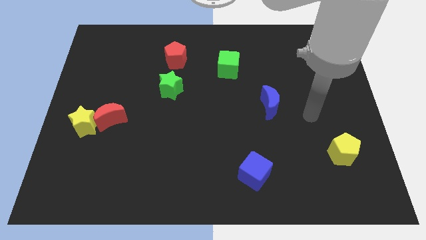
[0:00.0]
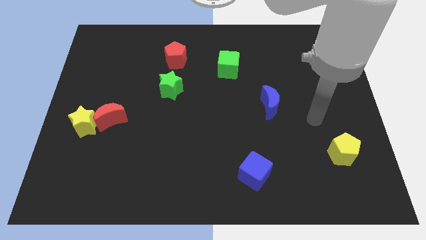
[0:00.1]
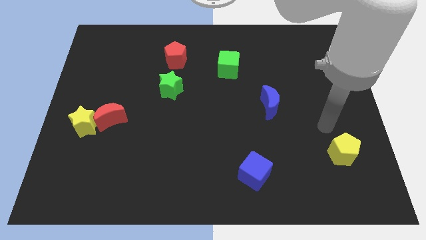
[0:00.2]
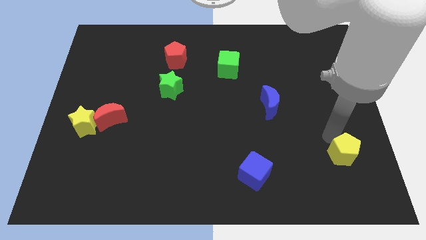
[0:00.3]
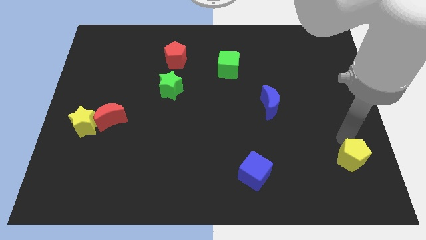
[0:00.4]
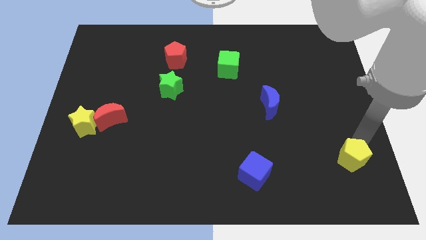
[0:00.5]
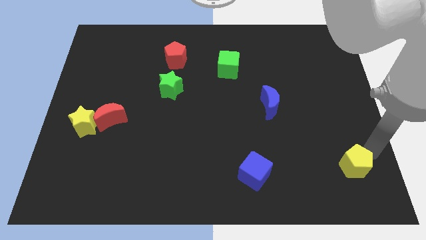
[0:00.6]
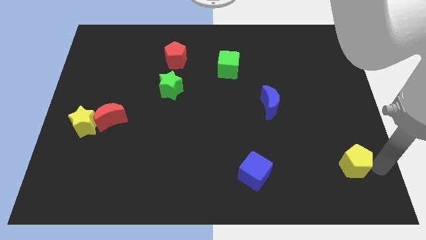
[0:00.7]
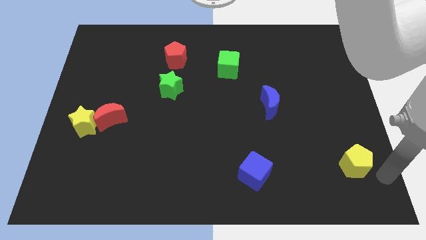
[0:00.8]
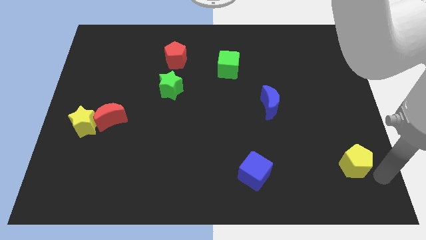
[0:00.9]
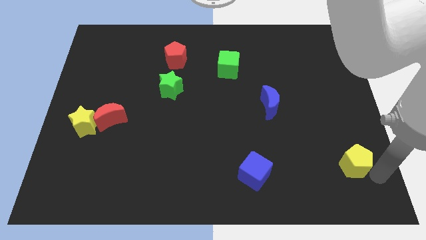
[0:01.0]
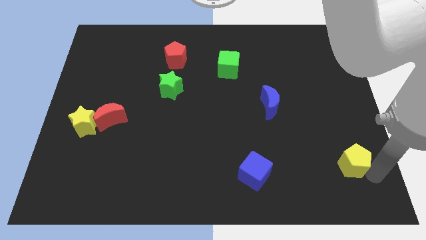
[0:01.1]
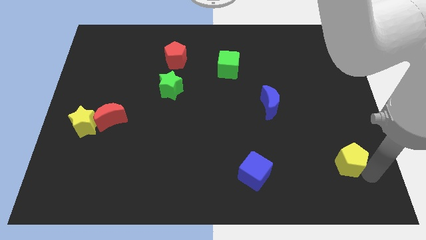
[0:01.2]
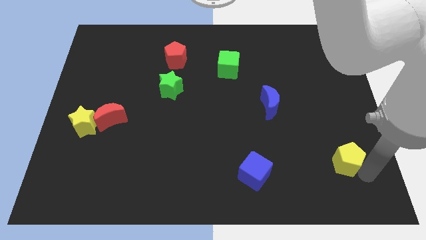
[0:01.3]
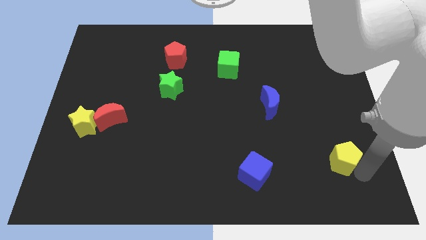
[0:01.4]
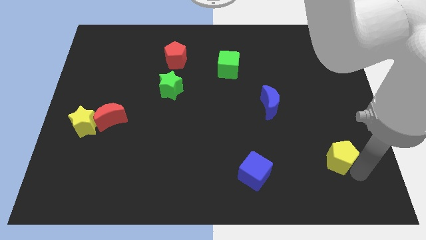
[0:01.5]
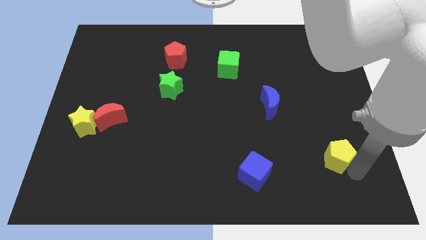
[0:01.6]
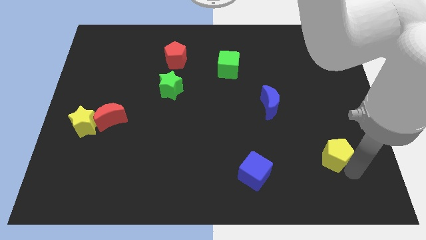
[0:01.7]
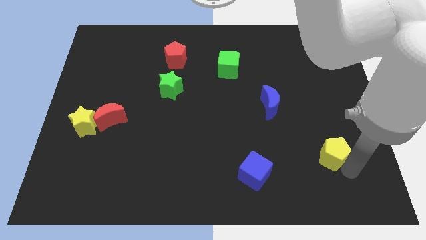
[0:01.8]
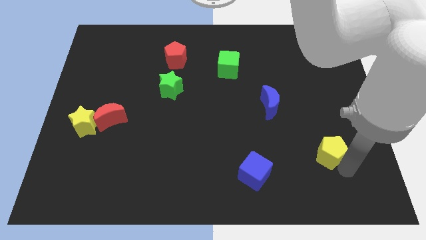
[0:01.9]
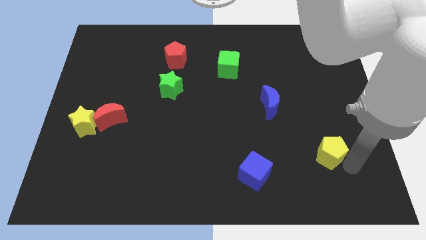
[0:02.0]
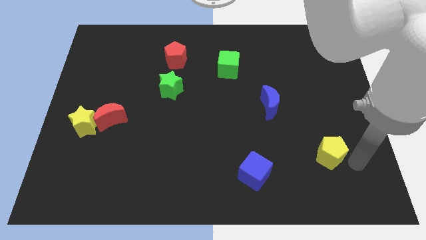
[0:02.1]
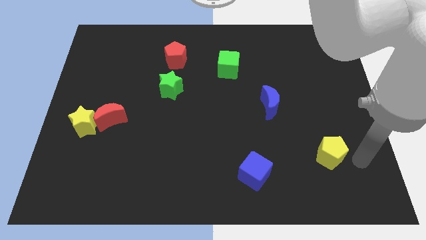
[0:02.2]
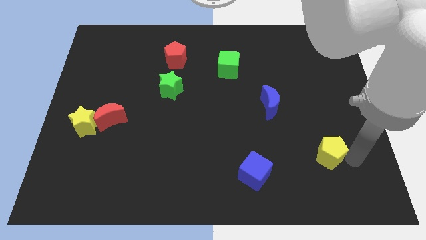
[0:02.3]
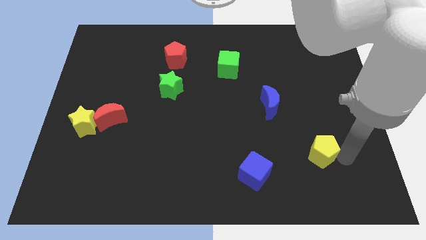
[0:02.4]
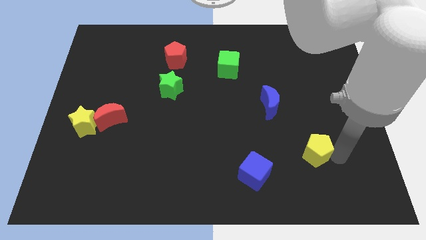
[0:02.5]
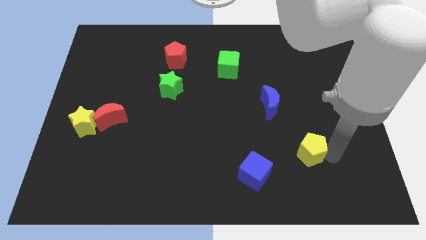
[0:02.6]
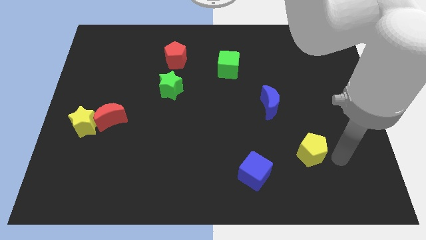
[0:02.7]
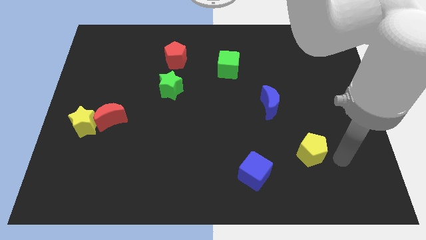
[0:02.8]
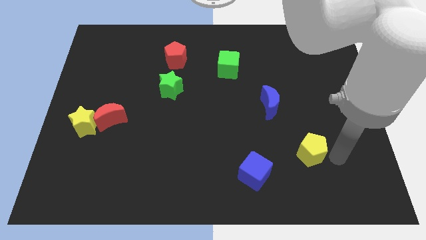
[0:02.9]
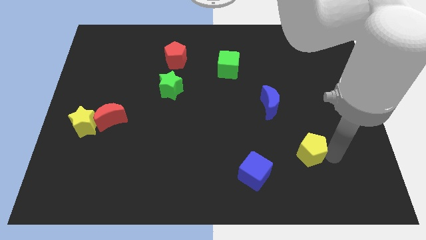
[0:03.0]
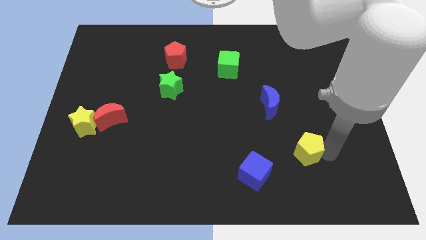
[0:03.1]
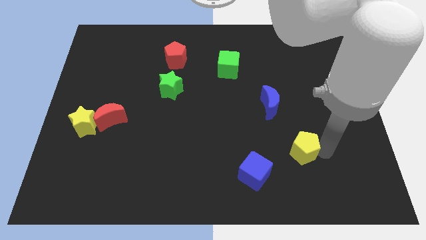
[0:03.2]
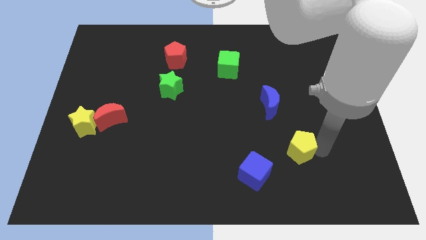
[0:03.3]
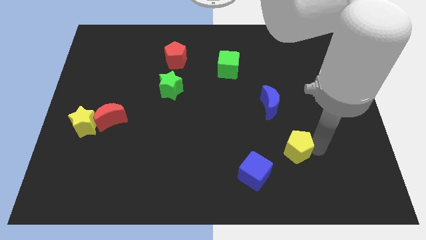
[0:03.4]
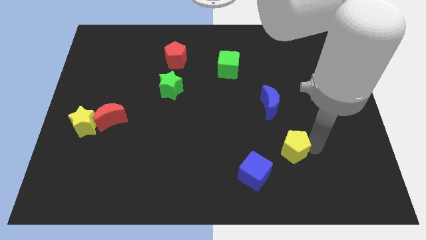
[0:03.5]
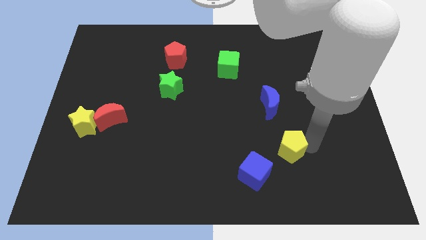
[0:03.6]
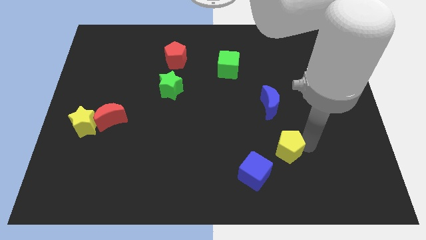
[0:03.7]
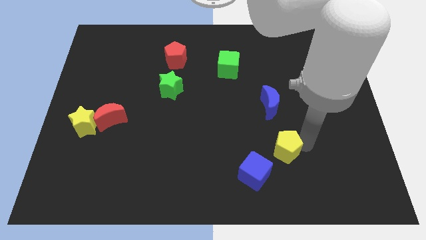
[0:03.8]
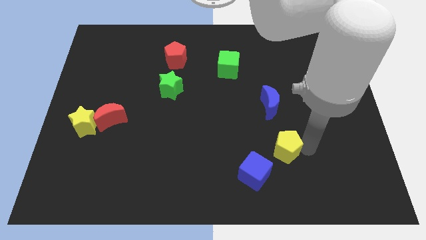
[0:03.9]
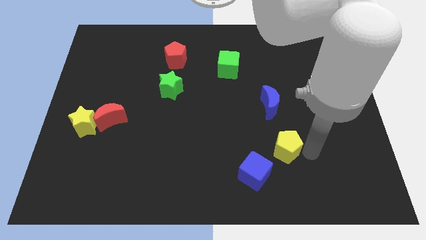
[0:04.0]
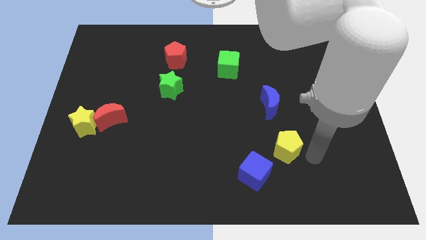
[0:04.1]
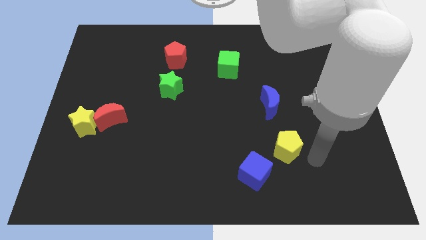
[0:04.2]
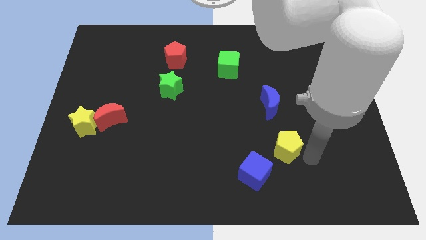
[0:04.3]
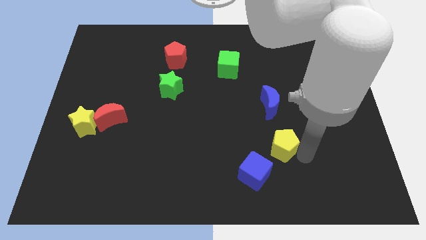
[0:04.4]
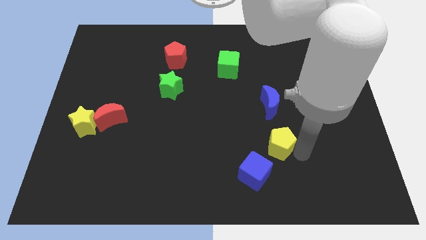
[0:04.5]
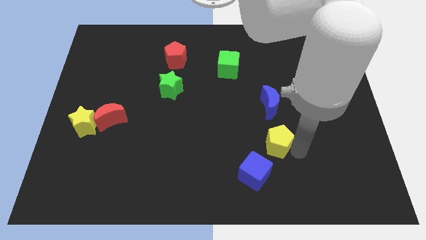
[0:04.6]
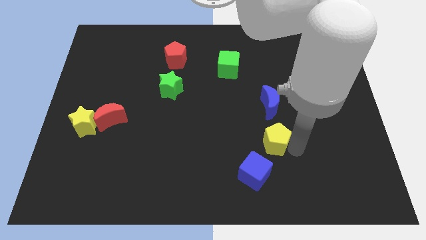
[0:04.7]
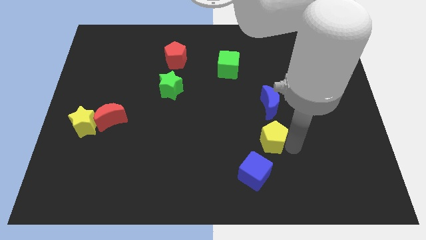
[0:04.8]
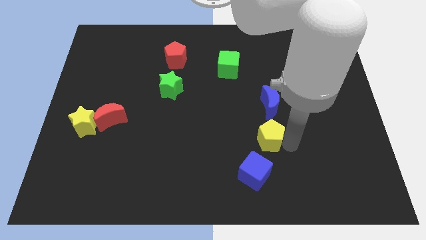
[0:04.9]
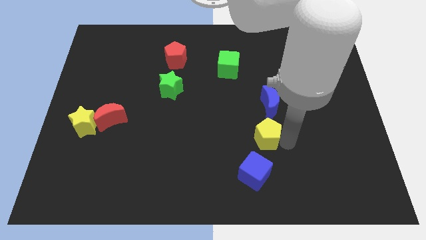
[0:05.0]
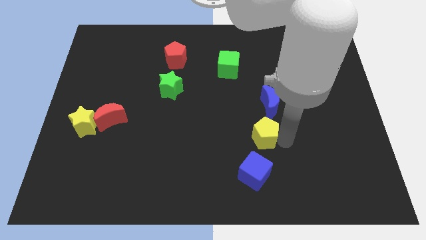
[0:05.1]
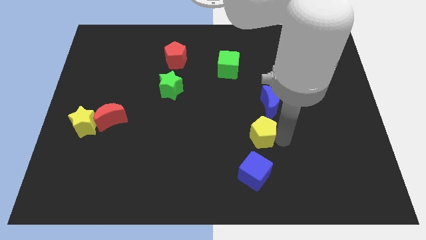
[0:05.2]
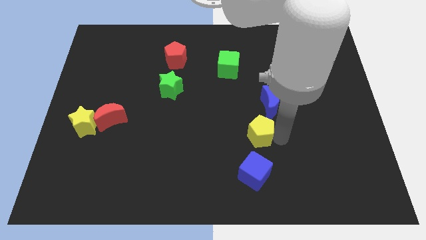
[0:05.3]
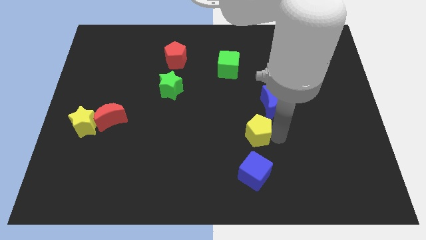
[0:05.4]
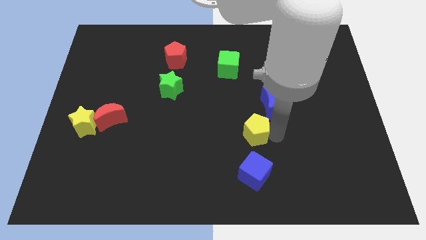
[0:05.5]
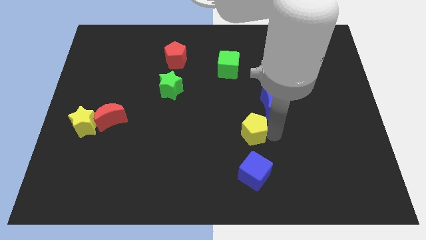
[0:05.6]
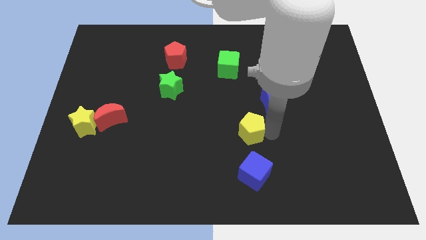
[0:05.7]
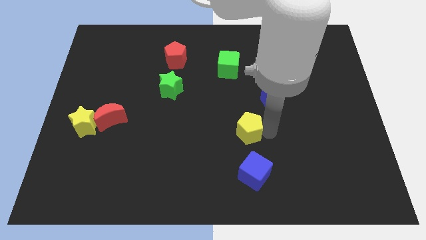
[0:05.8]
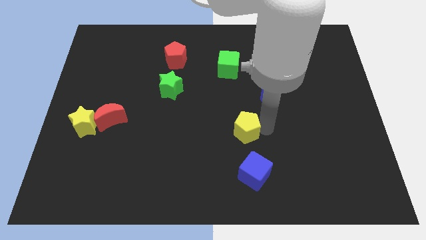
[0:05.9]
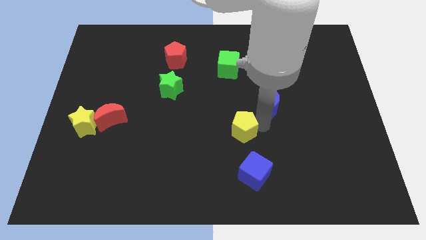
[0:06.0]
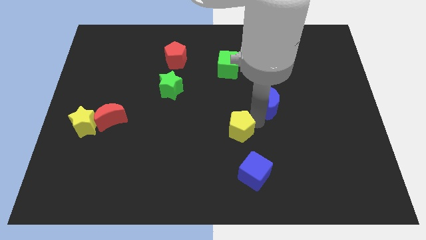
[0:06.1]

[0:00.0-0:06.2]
slide the yellow pentagon left

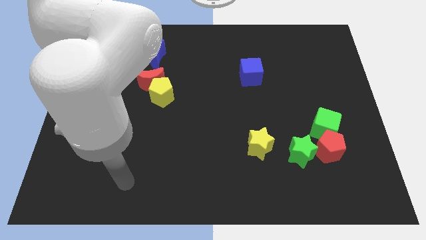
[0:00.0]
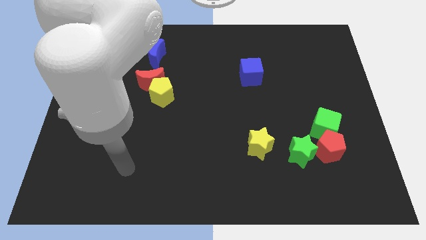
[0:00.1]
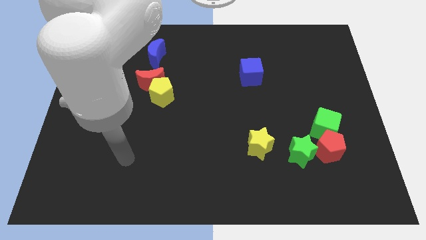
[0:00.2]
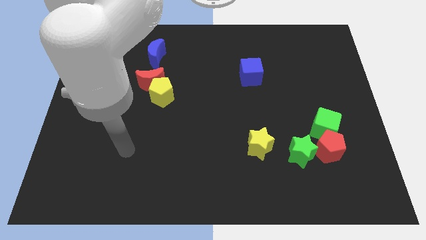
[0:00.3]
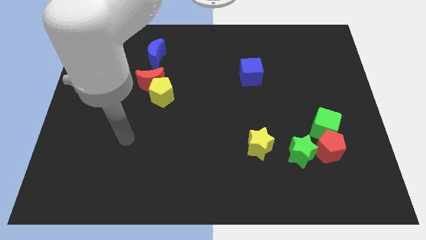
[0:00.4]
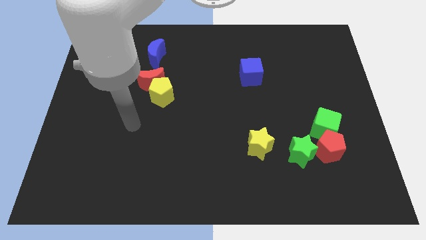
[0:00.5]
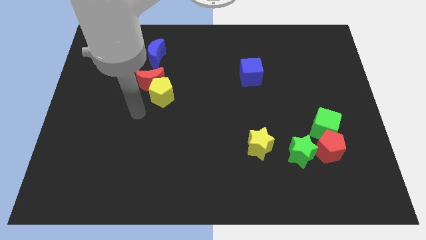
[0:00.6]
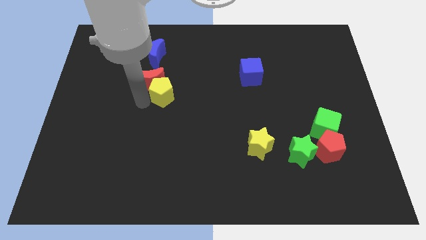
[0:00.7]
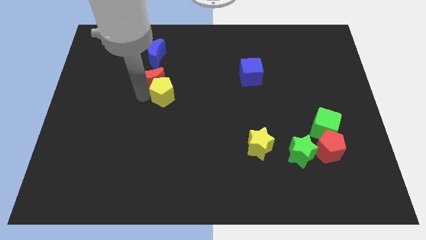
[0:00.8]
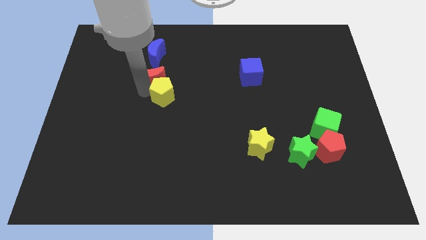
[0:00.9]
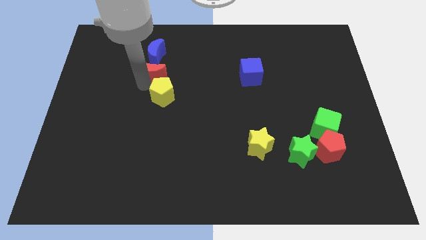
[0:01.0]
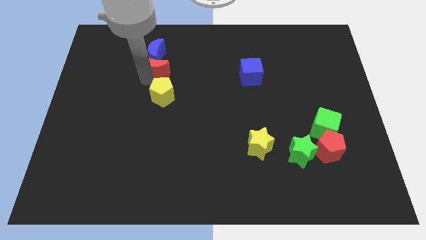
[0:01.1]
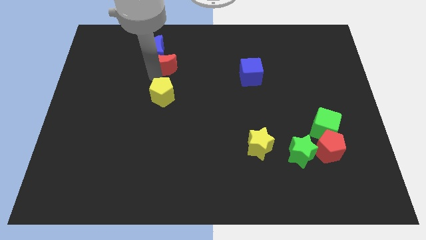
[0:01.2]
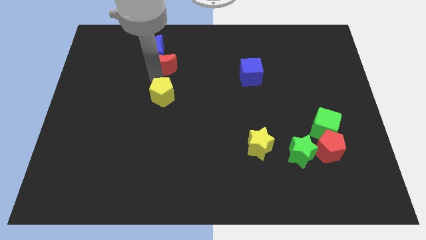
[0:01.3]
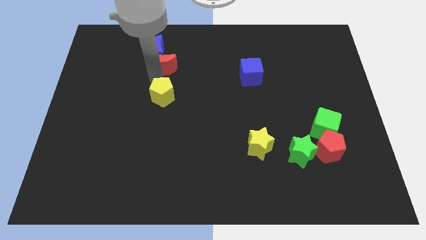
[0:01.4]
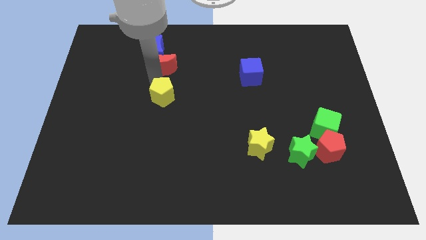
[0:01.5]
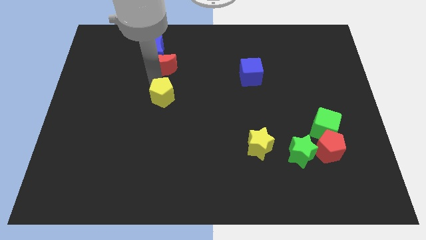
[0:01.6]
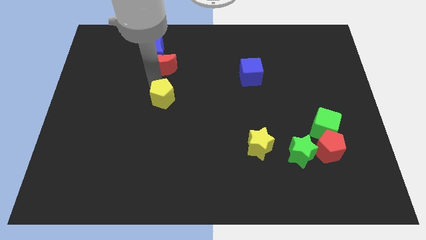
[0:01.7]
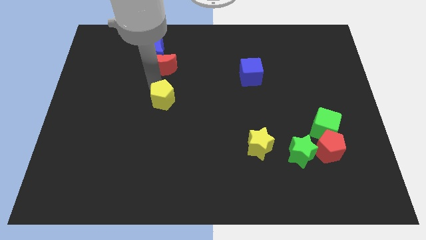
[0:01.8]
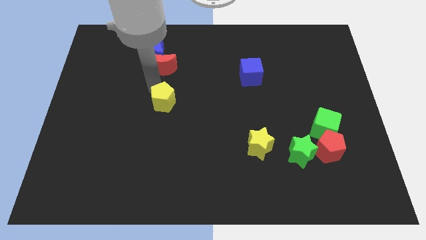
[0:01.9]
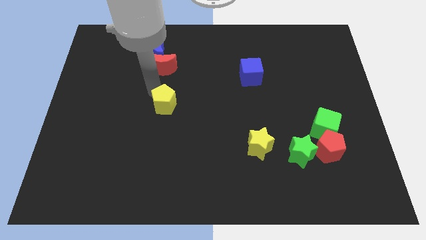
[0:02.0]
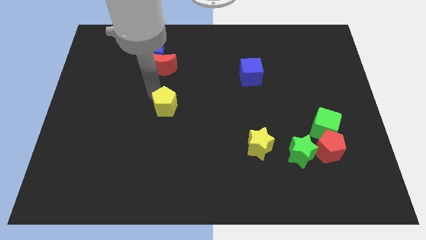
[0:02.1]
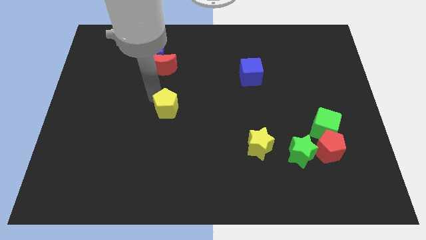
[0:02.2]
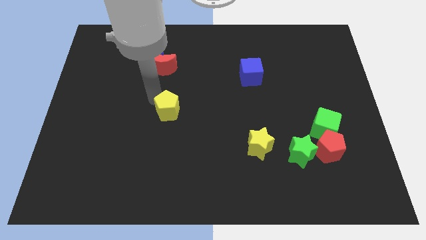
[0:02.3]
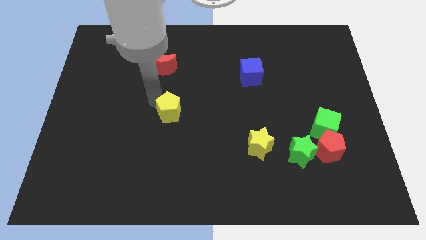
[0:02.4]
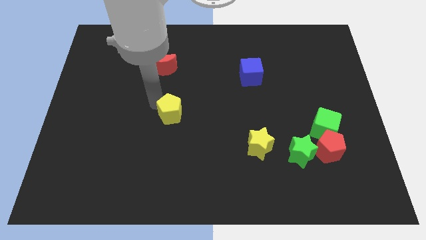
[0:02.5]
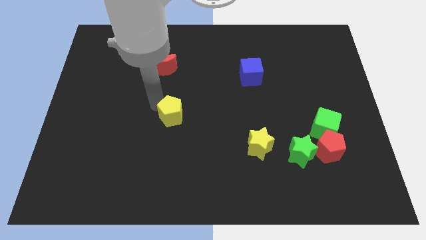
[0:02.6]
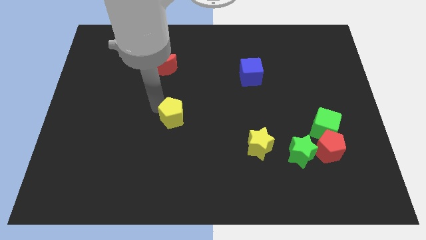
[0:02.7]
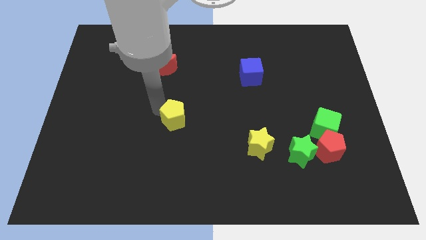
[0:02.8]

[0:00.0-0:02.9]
push the yellow pentagon diagonally downwards and right somewhat
